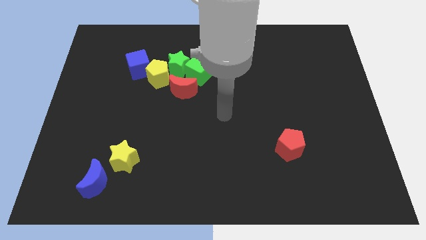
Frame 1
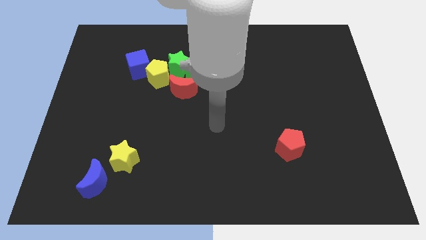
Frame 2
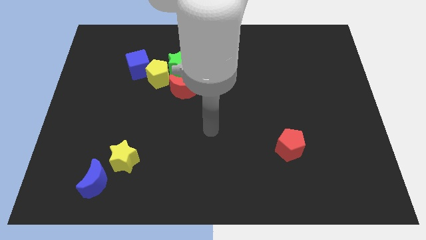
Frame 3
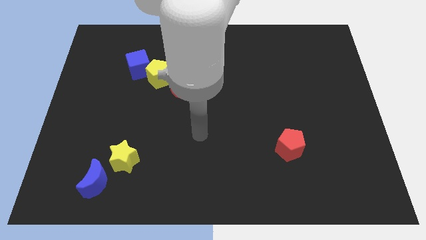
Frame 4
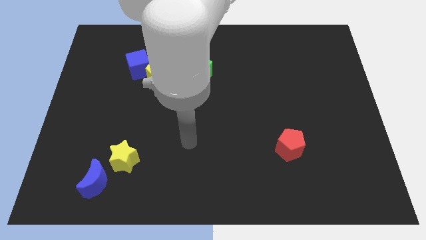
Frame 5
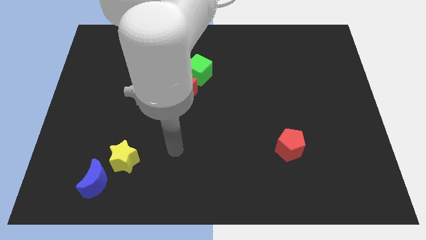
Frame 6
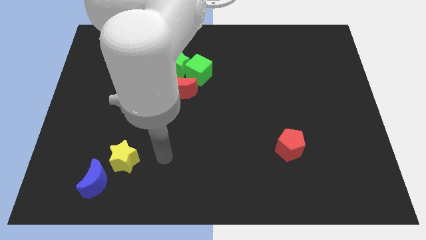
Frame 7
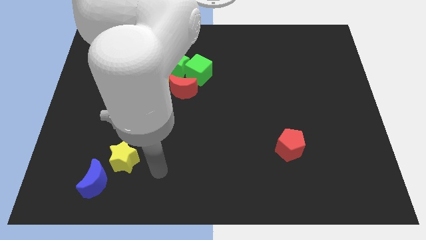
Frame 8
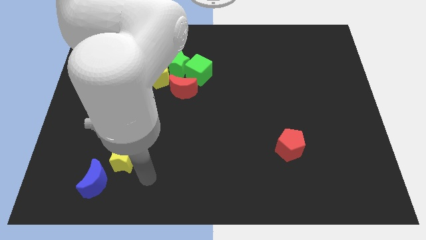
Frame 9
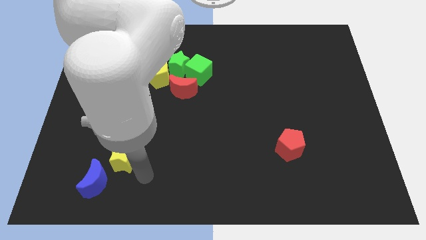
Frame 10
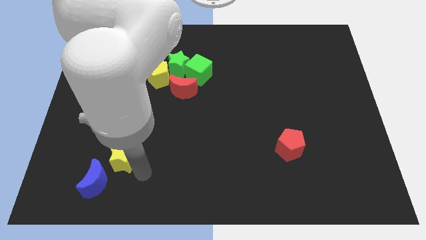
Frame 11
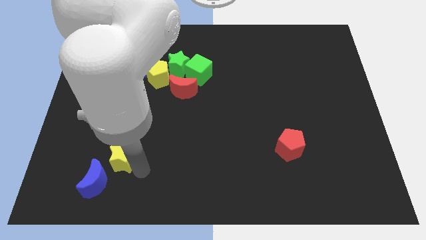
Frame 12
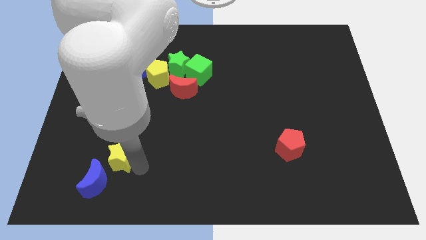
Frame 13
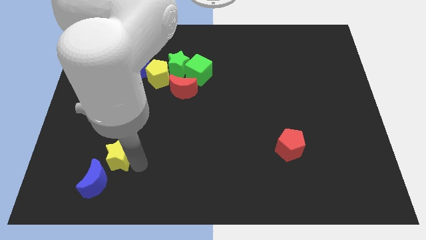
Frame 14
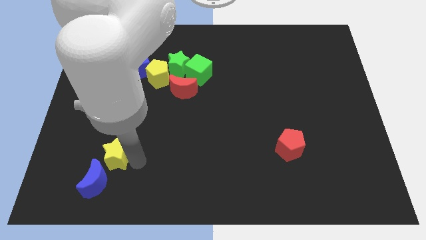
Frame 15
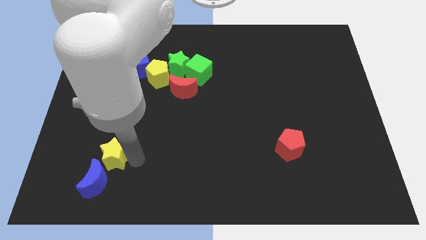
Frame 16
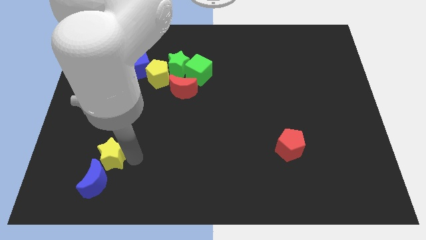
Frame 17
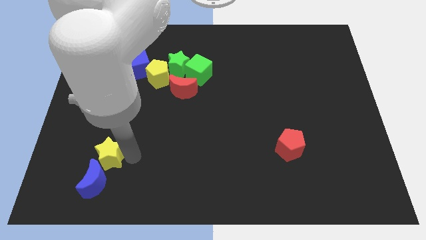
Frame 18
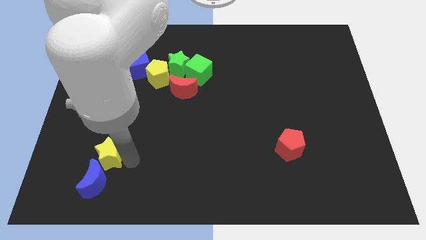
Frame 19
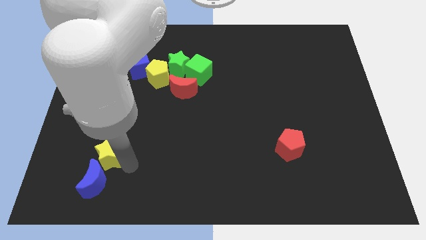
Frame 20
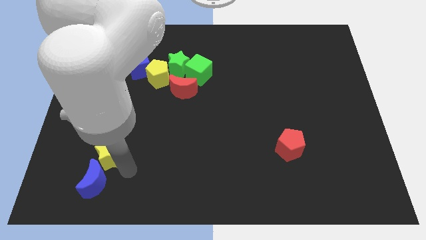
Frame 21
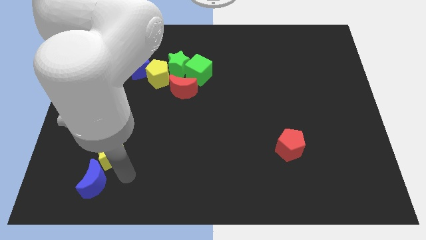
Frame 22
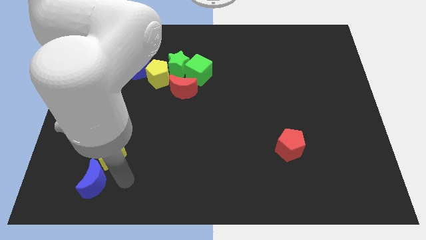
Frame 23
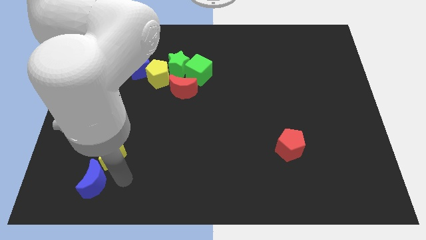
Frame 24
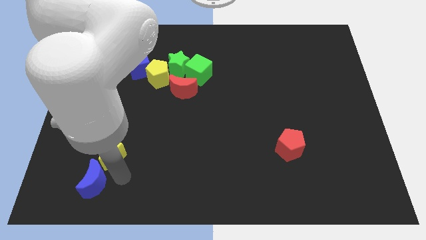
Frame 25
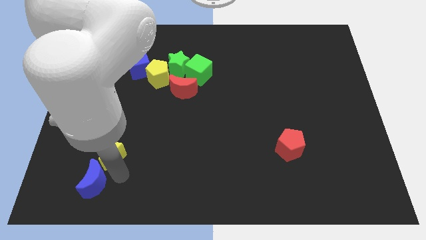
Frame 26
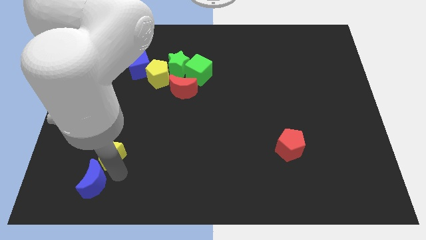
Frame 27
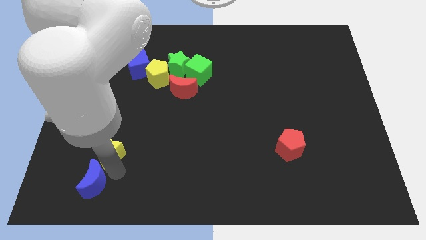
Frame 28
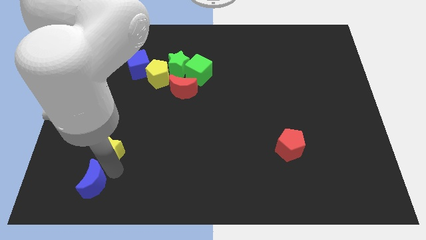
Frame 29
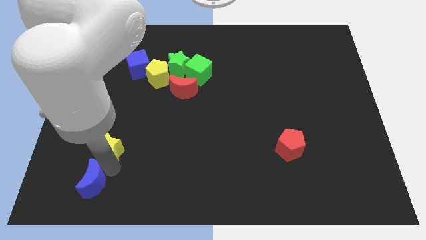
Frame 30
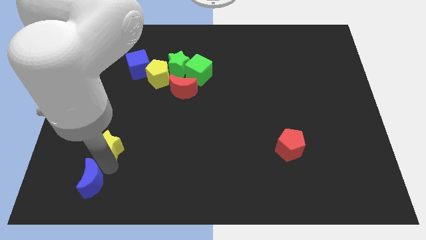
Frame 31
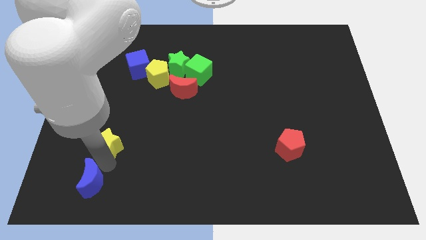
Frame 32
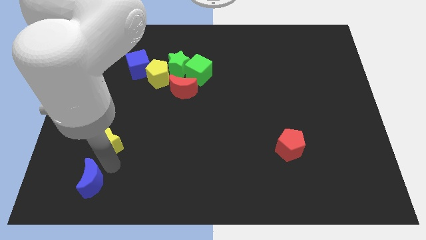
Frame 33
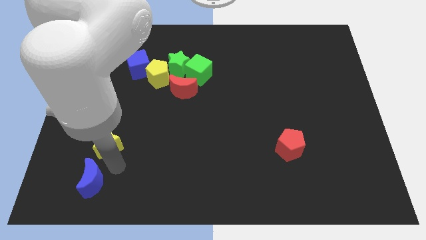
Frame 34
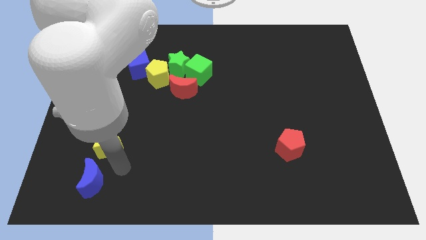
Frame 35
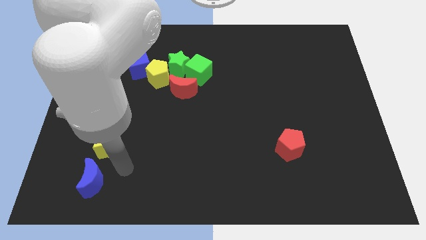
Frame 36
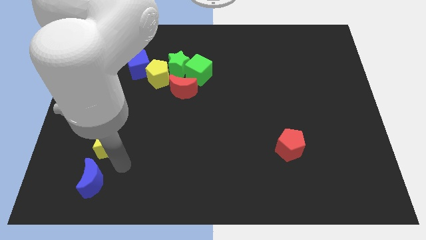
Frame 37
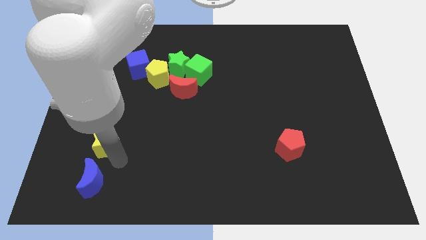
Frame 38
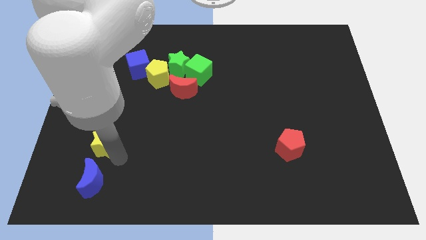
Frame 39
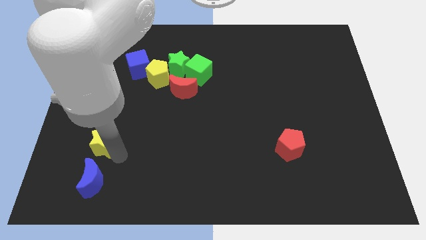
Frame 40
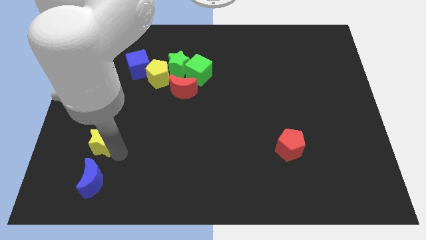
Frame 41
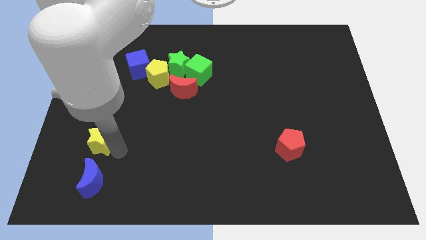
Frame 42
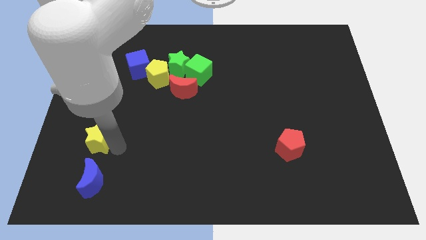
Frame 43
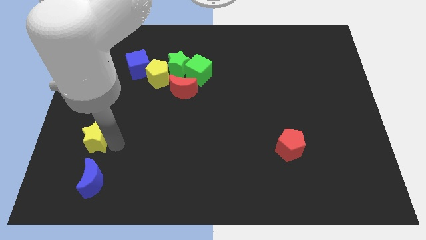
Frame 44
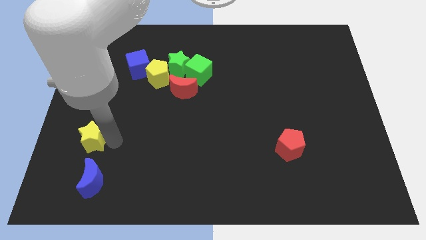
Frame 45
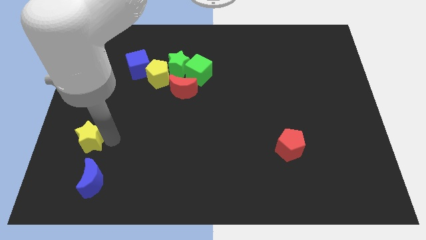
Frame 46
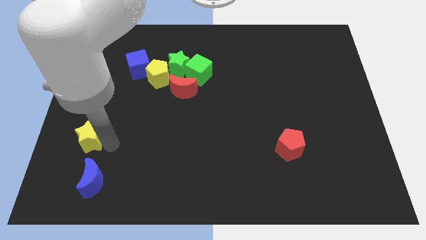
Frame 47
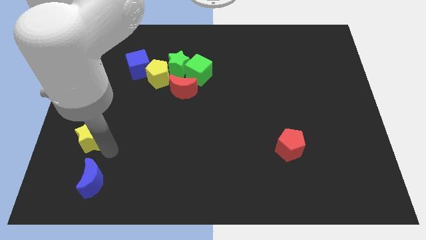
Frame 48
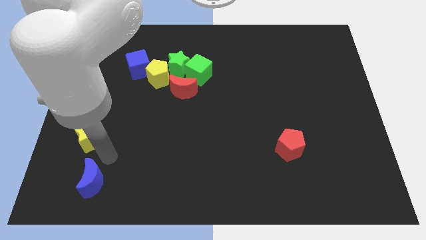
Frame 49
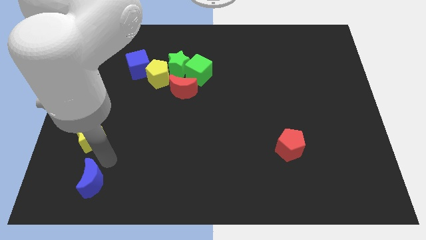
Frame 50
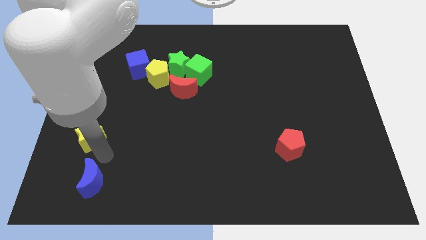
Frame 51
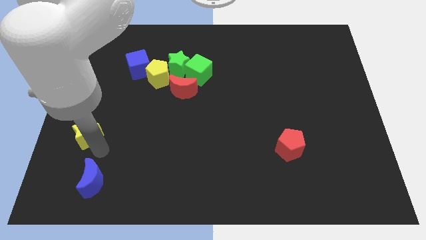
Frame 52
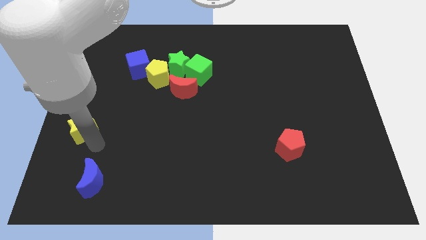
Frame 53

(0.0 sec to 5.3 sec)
move the yellow star to the left side

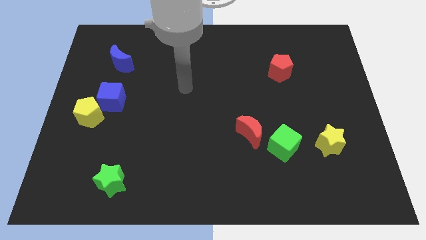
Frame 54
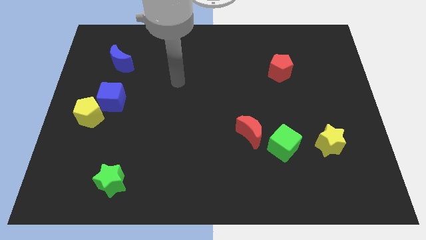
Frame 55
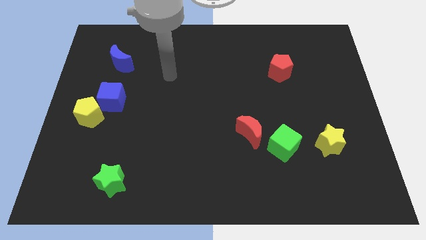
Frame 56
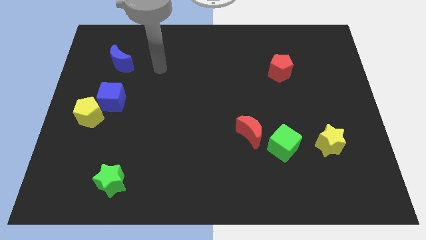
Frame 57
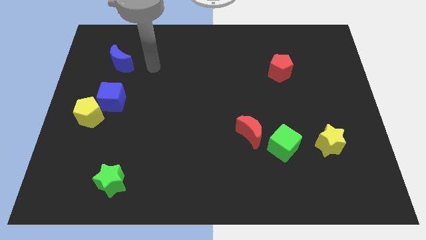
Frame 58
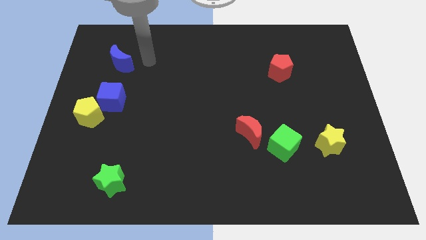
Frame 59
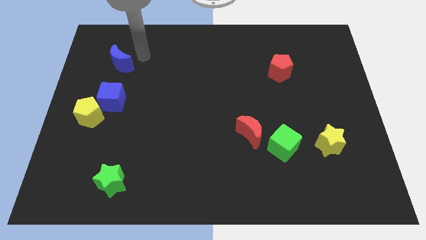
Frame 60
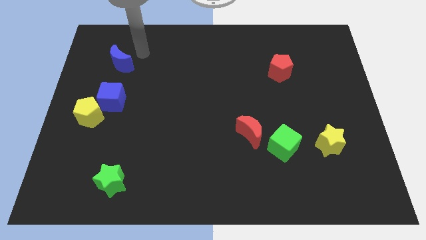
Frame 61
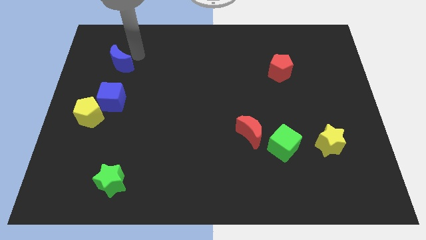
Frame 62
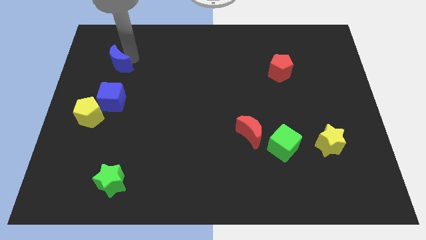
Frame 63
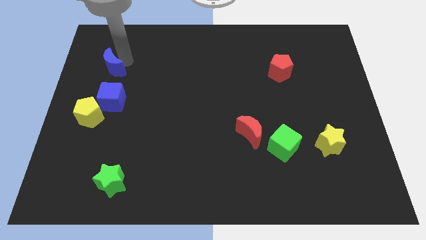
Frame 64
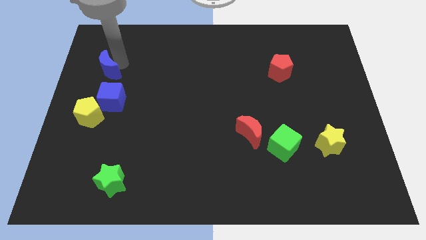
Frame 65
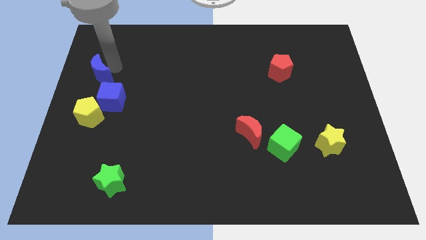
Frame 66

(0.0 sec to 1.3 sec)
push the blue moon to the left side of the board
